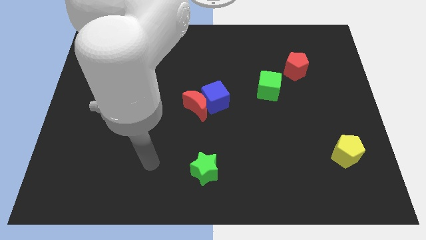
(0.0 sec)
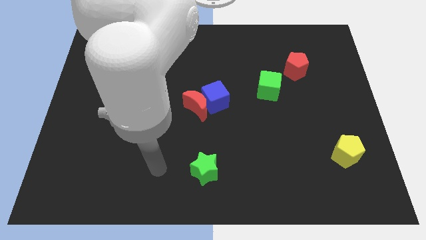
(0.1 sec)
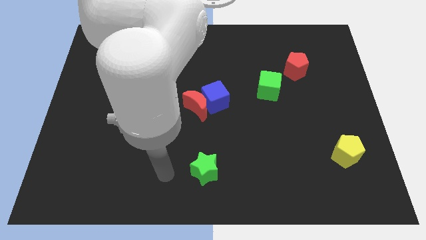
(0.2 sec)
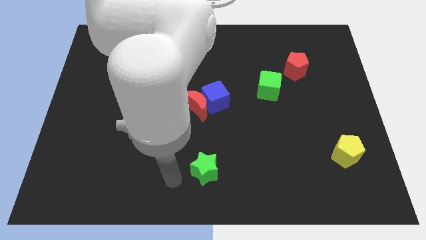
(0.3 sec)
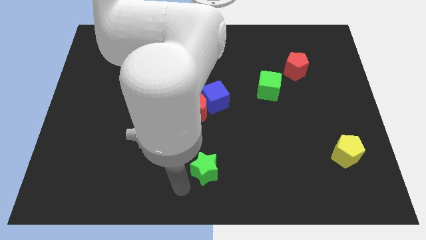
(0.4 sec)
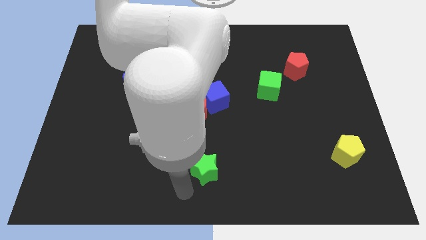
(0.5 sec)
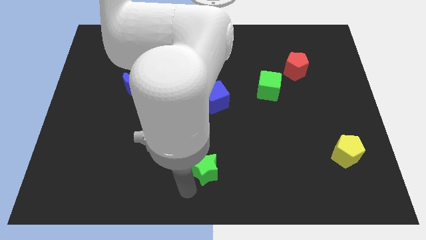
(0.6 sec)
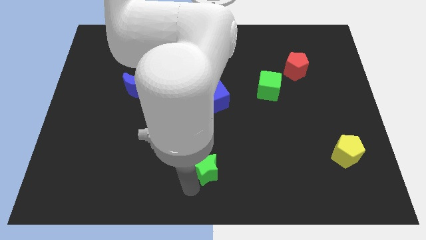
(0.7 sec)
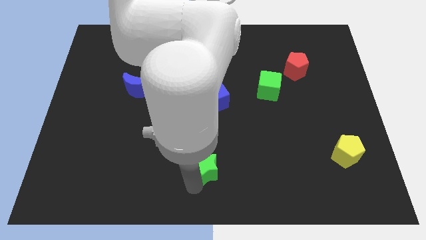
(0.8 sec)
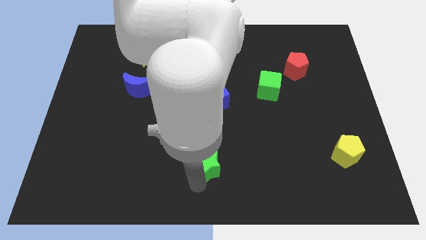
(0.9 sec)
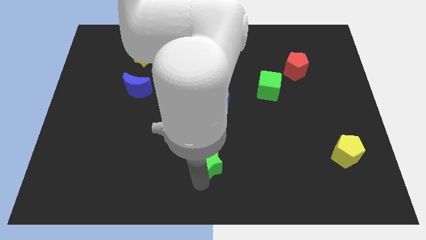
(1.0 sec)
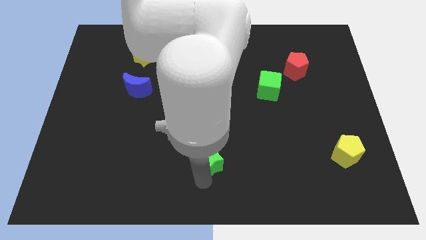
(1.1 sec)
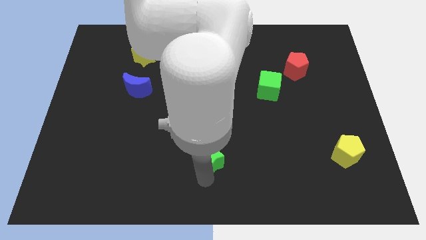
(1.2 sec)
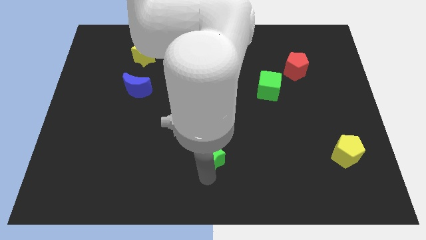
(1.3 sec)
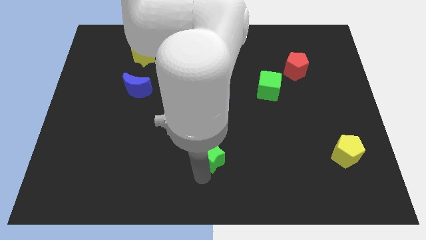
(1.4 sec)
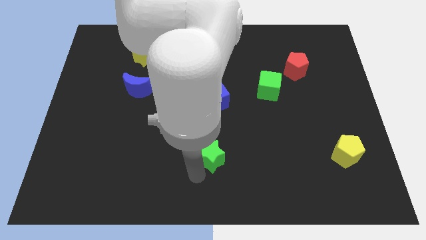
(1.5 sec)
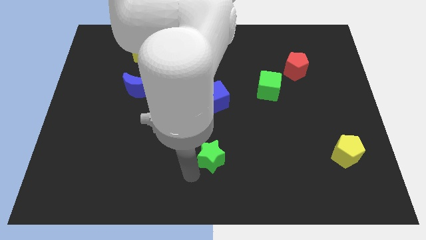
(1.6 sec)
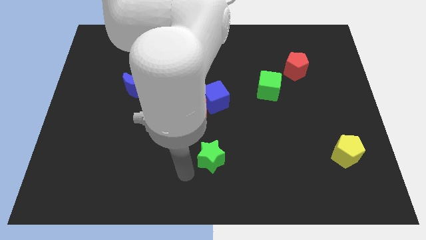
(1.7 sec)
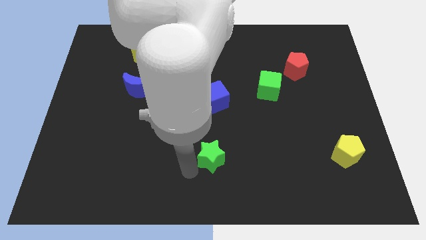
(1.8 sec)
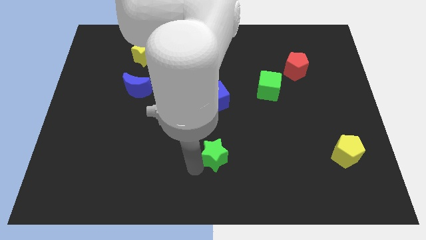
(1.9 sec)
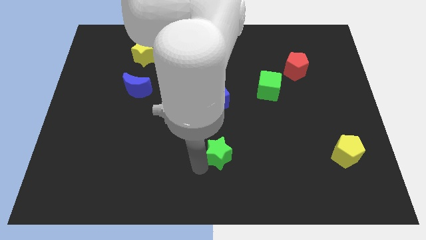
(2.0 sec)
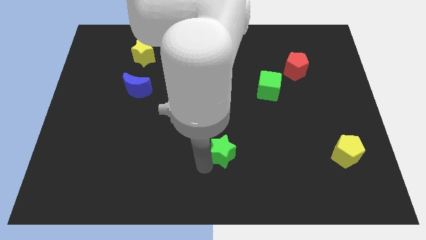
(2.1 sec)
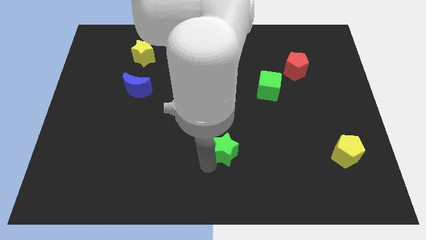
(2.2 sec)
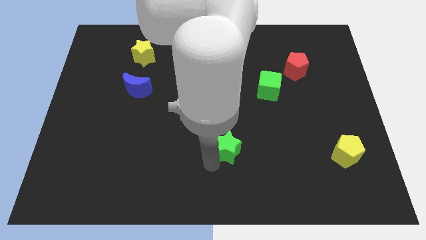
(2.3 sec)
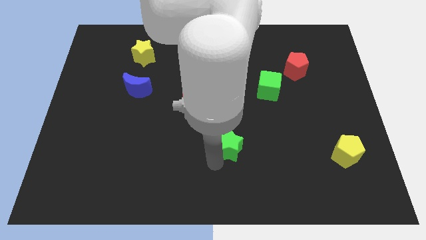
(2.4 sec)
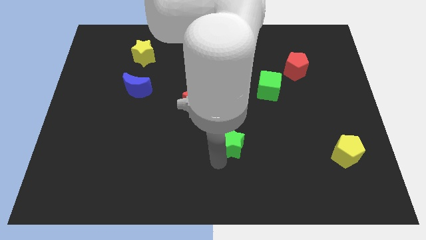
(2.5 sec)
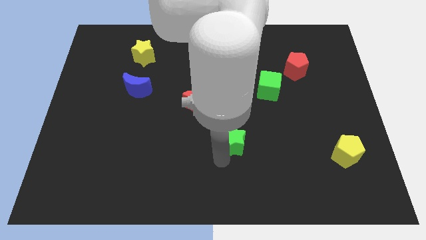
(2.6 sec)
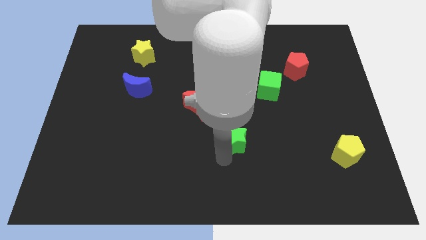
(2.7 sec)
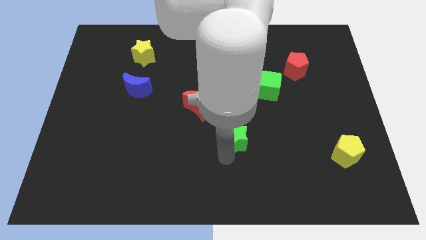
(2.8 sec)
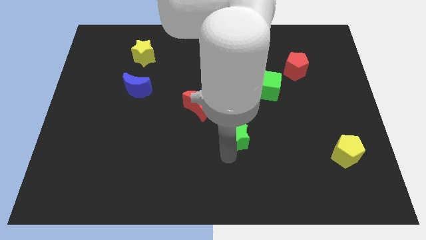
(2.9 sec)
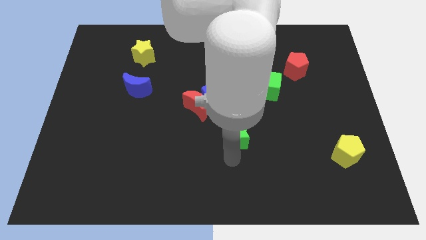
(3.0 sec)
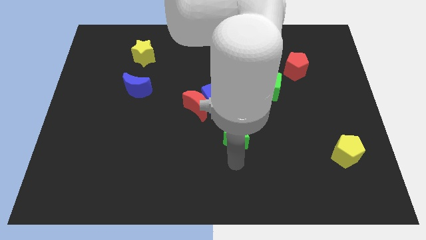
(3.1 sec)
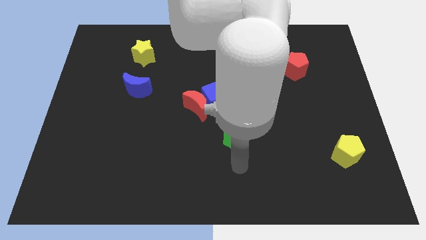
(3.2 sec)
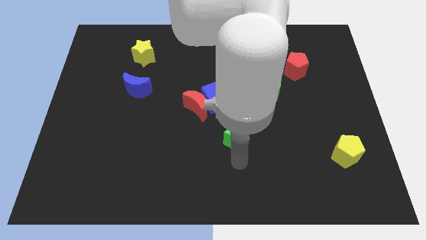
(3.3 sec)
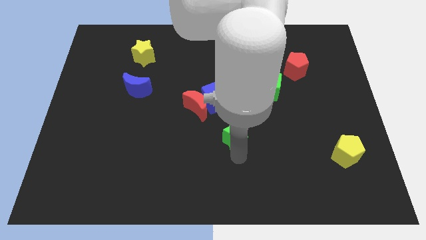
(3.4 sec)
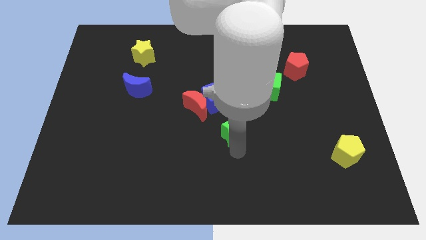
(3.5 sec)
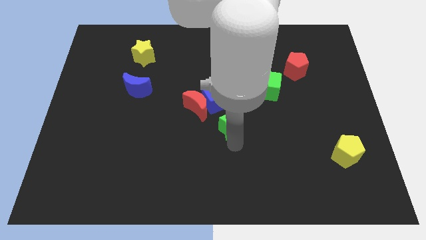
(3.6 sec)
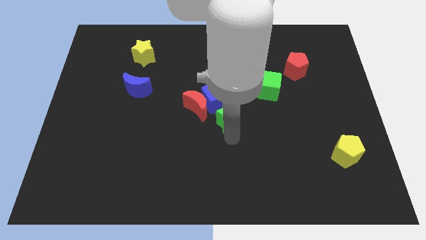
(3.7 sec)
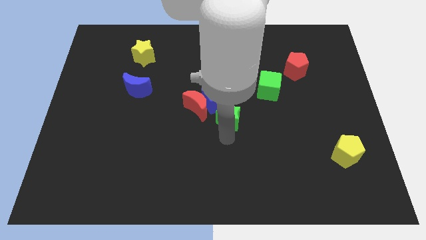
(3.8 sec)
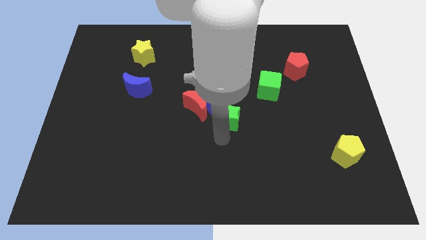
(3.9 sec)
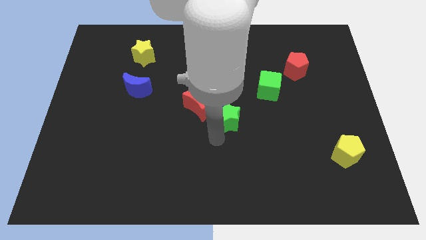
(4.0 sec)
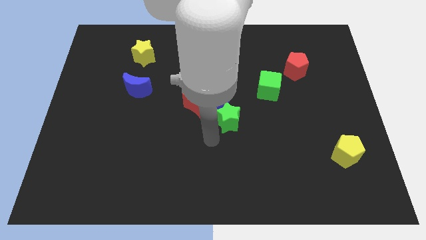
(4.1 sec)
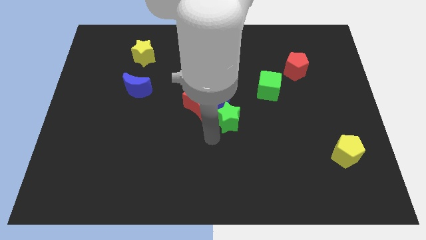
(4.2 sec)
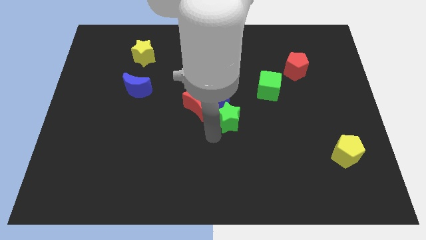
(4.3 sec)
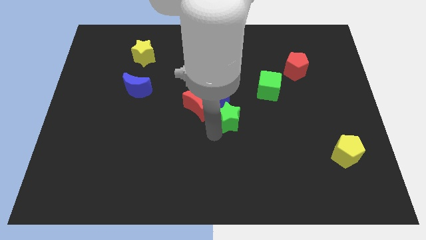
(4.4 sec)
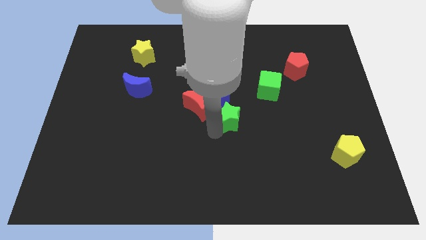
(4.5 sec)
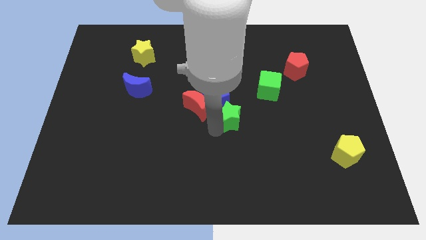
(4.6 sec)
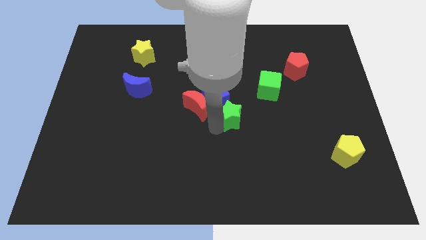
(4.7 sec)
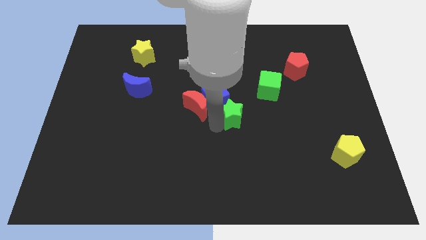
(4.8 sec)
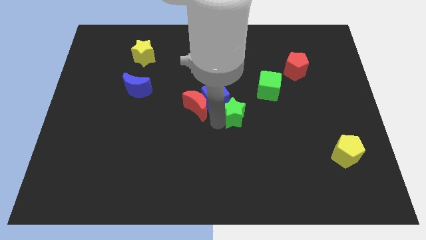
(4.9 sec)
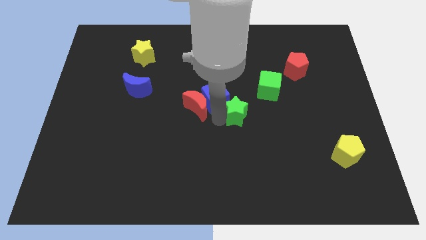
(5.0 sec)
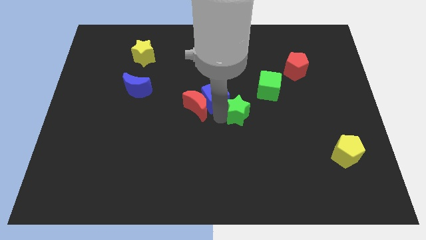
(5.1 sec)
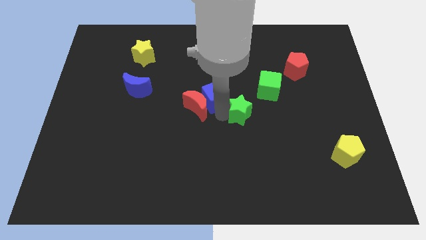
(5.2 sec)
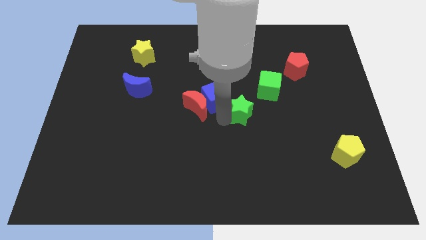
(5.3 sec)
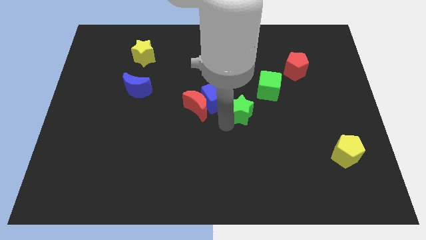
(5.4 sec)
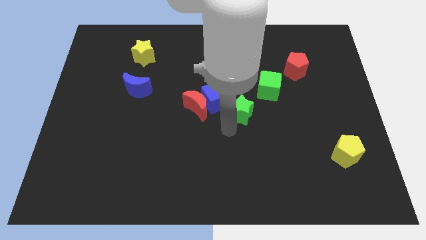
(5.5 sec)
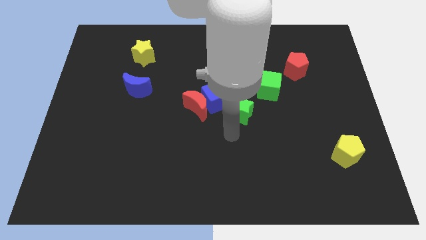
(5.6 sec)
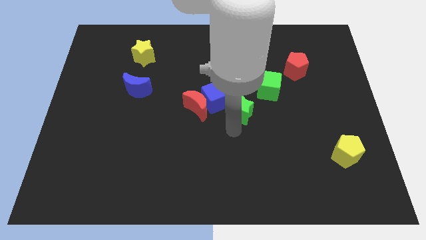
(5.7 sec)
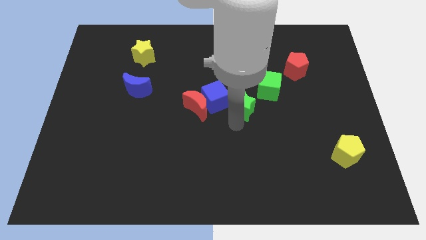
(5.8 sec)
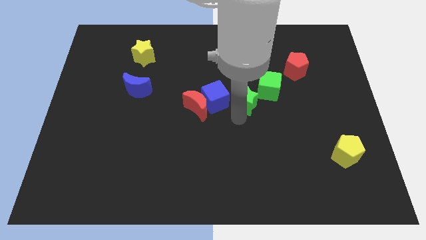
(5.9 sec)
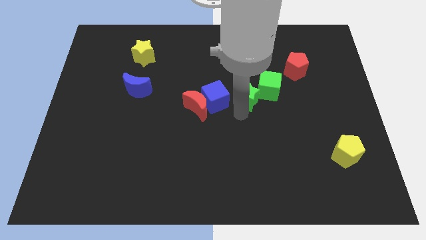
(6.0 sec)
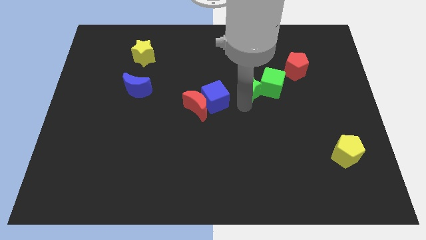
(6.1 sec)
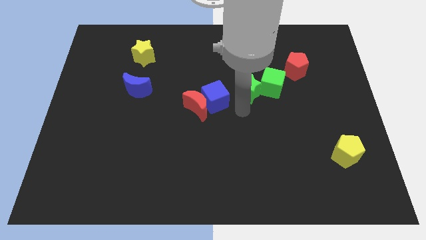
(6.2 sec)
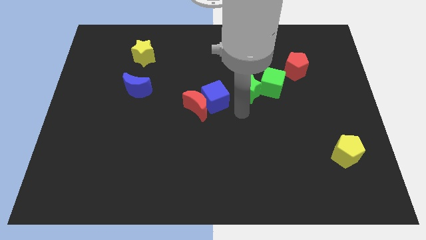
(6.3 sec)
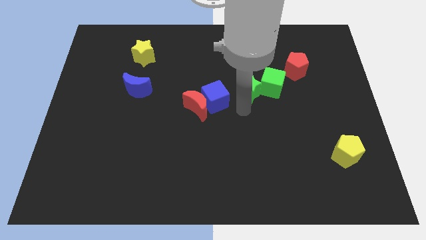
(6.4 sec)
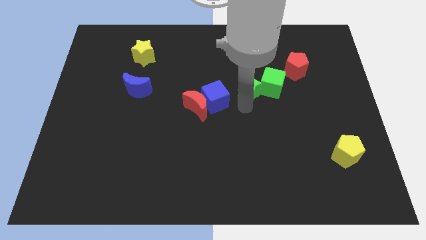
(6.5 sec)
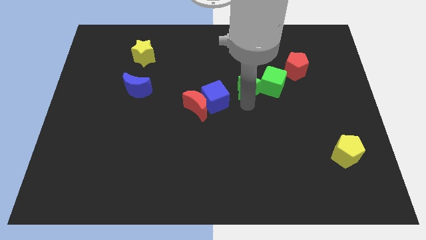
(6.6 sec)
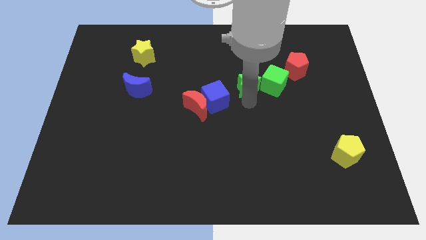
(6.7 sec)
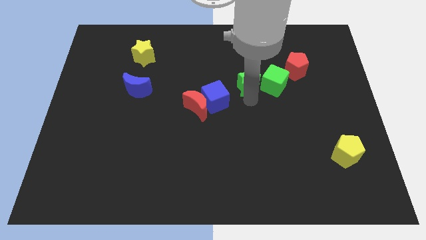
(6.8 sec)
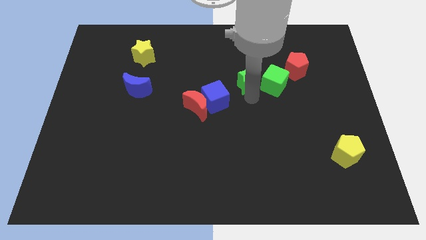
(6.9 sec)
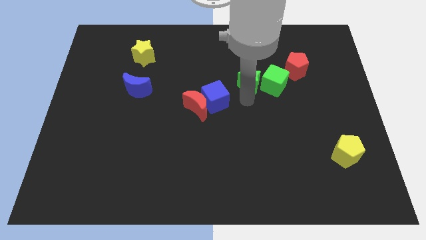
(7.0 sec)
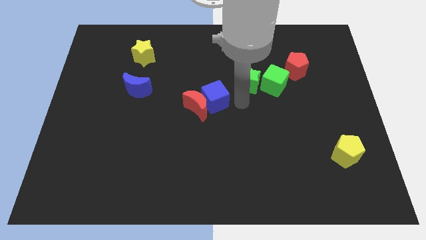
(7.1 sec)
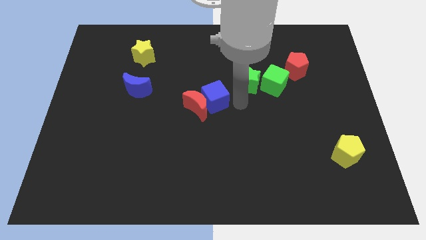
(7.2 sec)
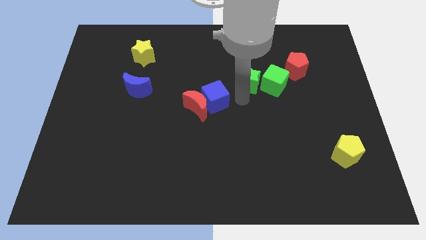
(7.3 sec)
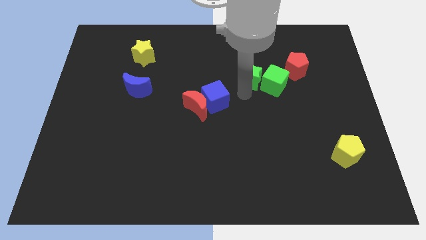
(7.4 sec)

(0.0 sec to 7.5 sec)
push the green star left of the red pentagon
